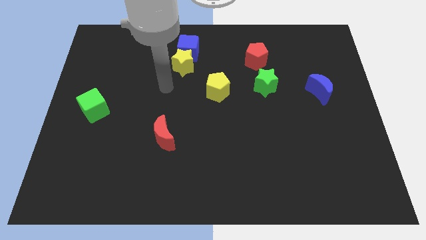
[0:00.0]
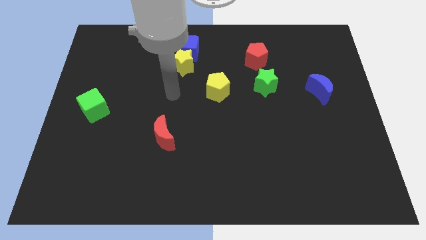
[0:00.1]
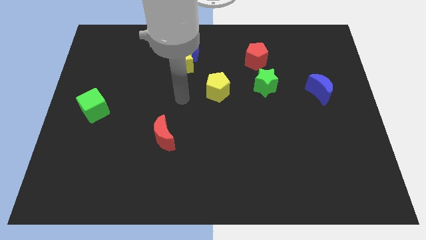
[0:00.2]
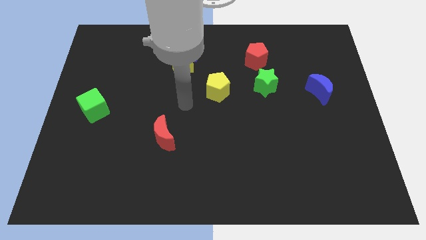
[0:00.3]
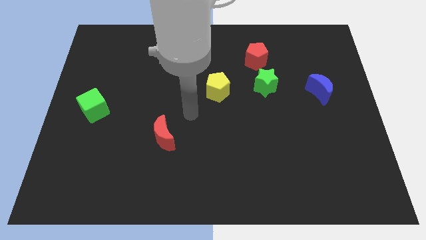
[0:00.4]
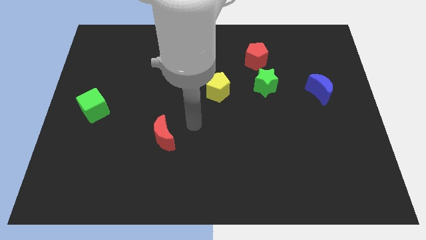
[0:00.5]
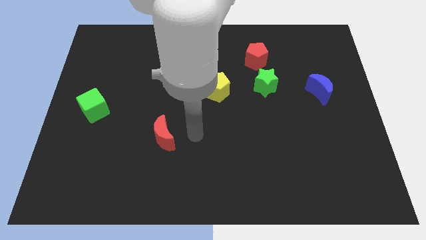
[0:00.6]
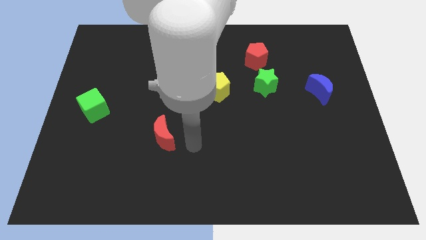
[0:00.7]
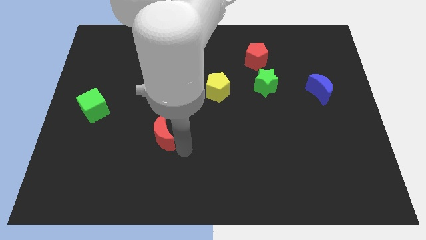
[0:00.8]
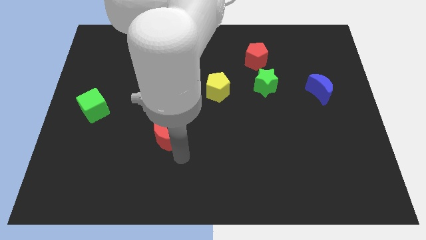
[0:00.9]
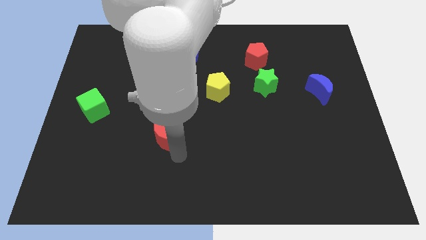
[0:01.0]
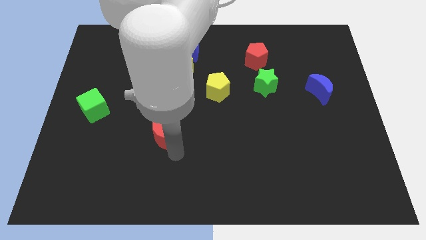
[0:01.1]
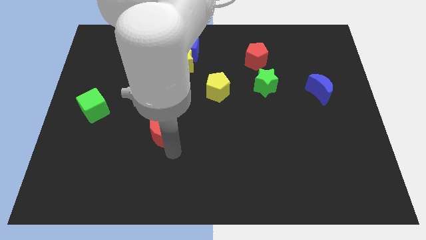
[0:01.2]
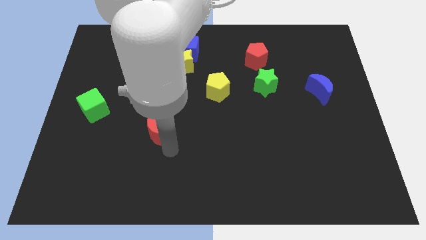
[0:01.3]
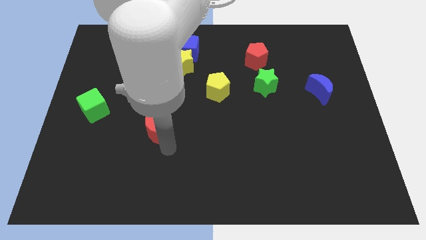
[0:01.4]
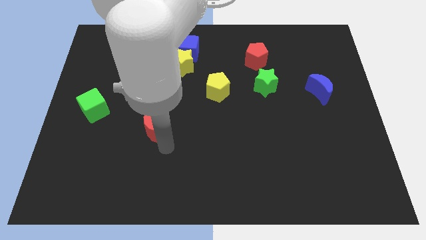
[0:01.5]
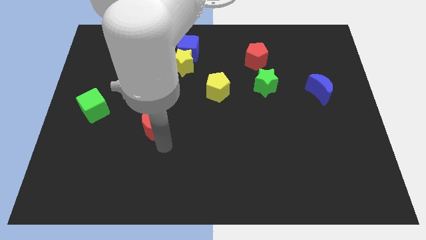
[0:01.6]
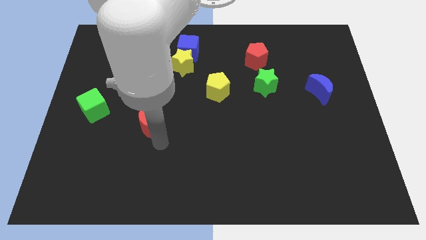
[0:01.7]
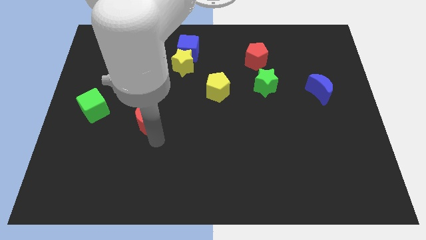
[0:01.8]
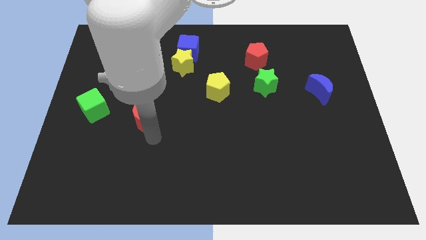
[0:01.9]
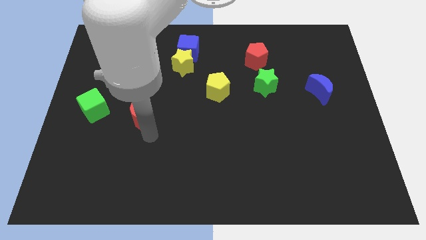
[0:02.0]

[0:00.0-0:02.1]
slightly push the red moon up and to the left diagonally

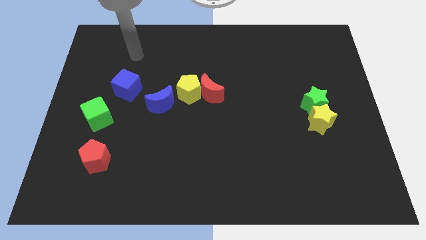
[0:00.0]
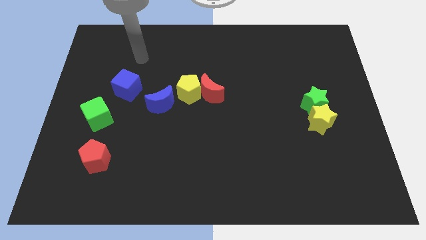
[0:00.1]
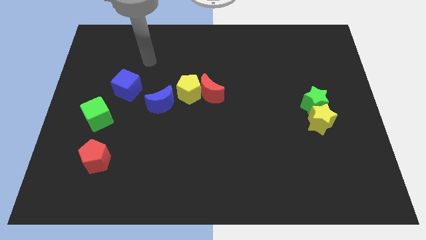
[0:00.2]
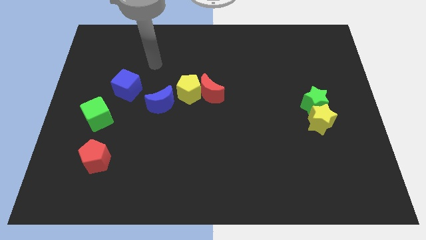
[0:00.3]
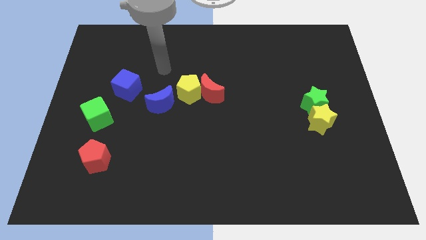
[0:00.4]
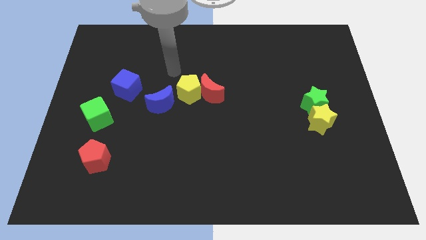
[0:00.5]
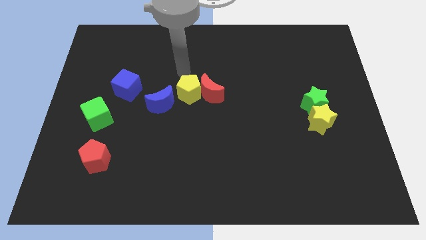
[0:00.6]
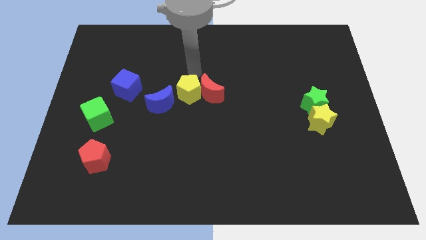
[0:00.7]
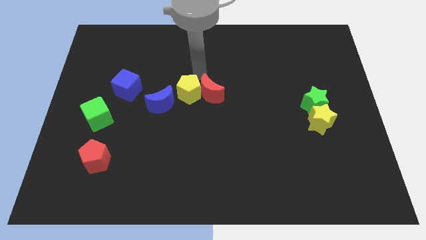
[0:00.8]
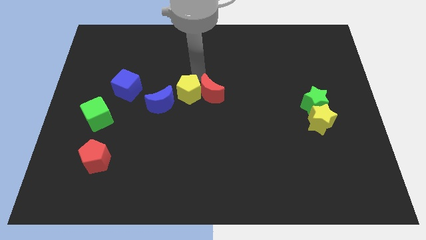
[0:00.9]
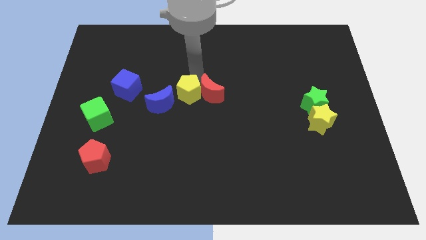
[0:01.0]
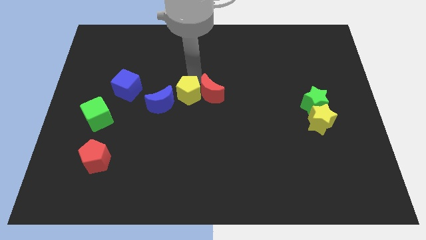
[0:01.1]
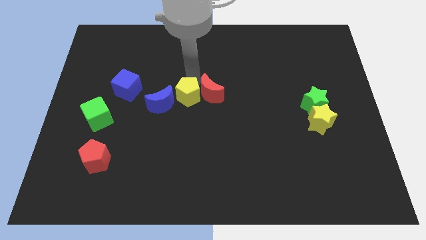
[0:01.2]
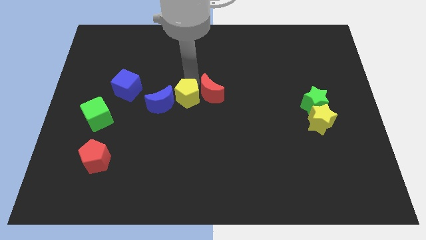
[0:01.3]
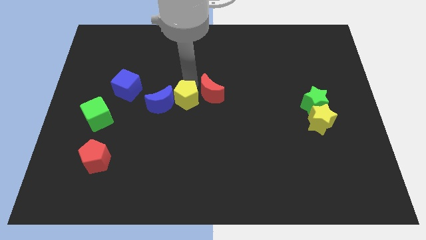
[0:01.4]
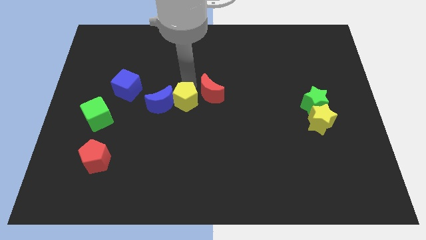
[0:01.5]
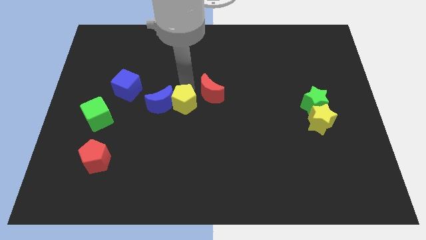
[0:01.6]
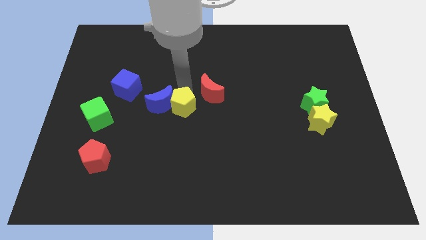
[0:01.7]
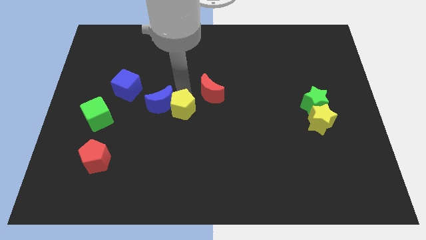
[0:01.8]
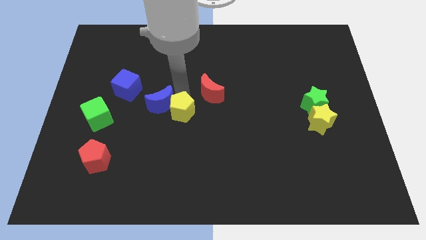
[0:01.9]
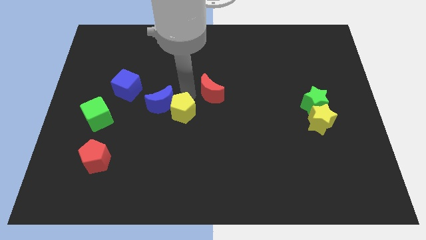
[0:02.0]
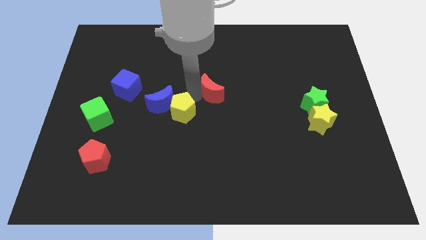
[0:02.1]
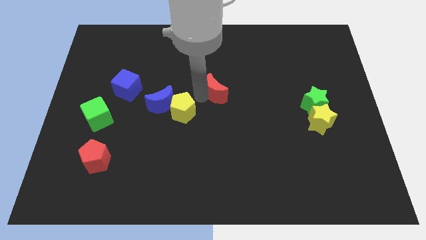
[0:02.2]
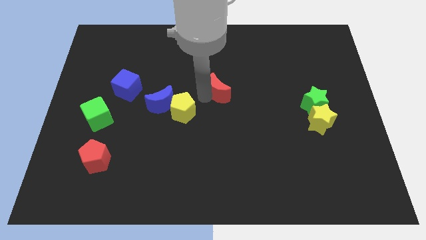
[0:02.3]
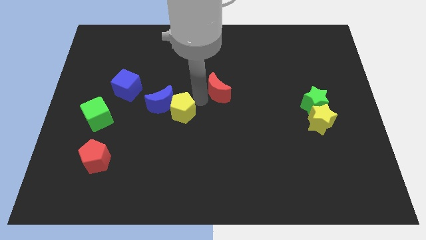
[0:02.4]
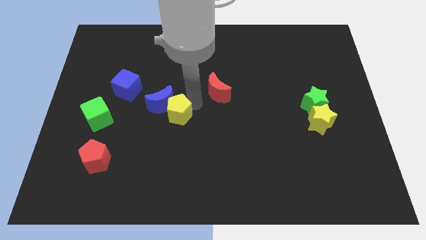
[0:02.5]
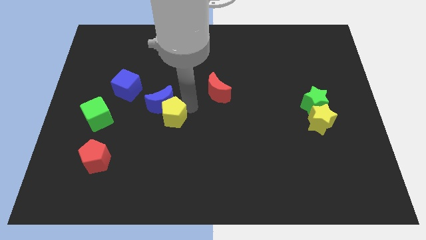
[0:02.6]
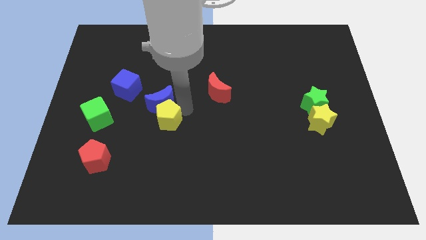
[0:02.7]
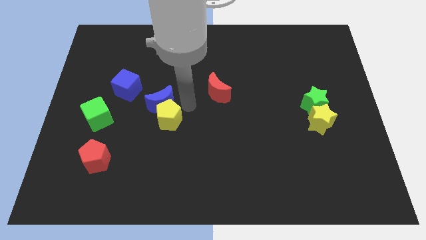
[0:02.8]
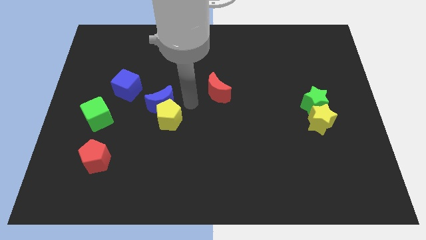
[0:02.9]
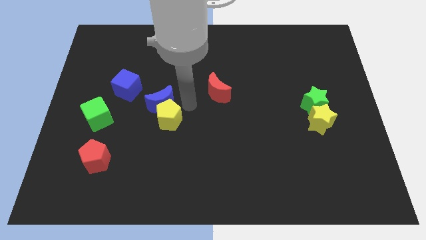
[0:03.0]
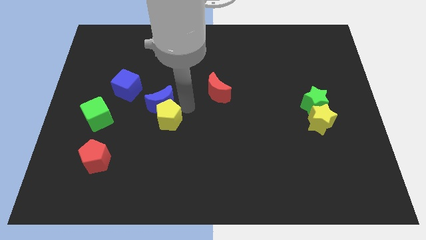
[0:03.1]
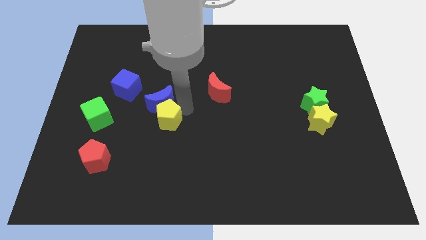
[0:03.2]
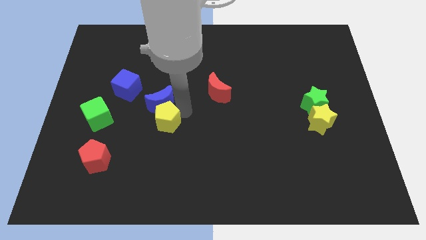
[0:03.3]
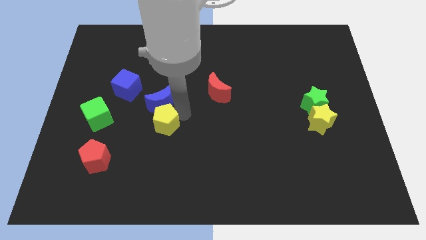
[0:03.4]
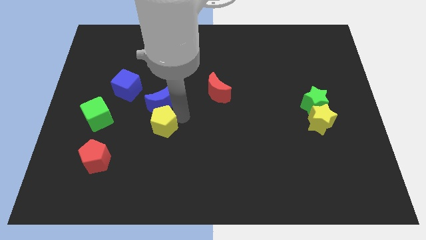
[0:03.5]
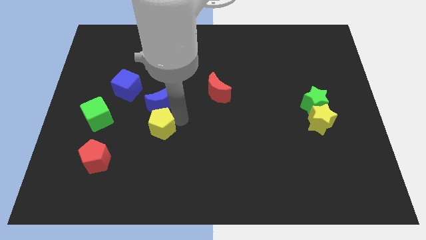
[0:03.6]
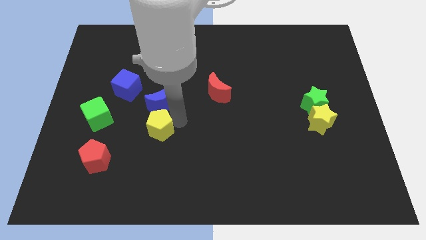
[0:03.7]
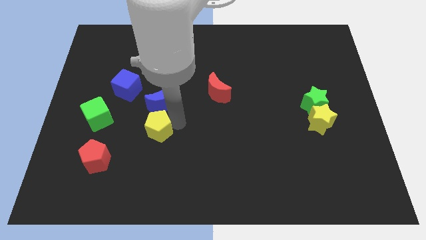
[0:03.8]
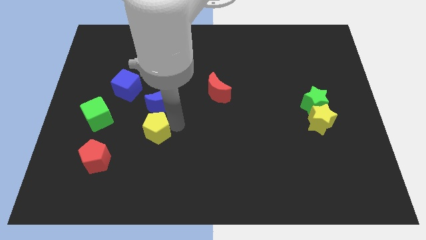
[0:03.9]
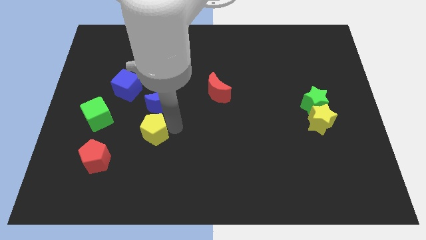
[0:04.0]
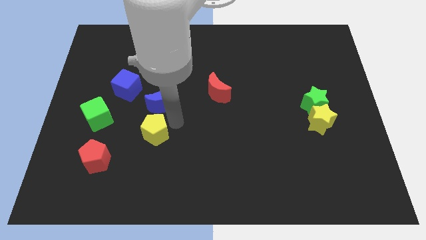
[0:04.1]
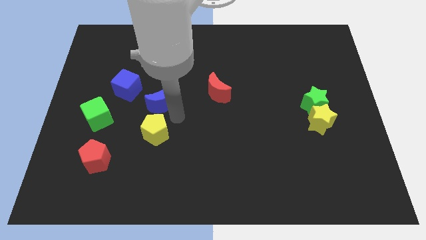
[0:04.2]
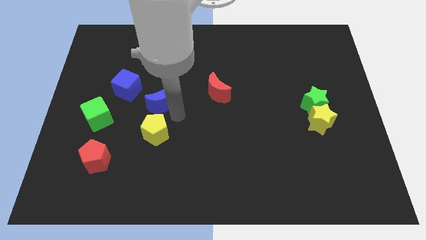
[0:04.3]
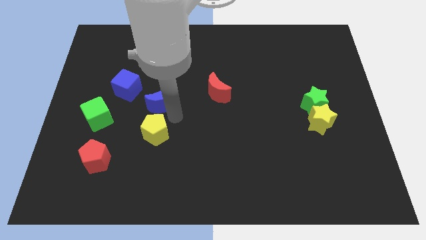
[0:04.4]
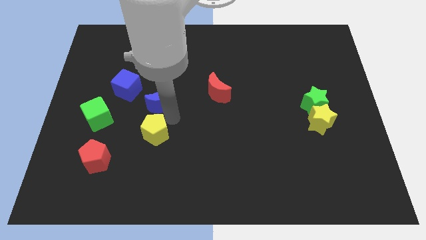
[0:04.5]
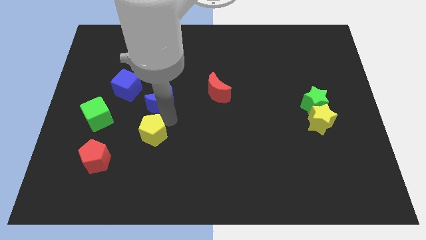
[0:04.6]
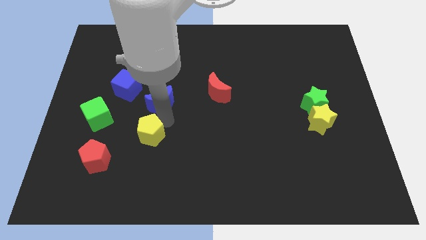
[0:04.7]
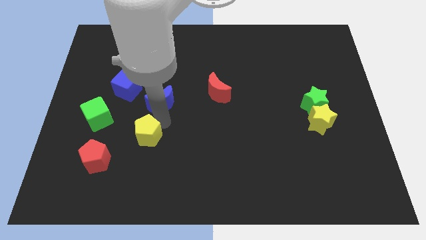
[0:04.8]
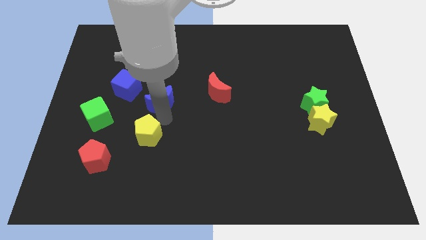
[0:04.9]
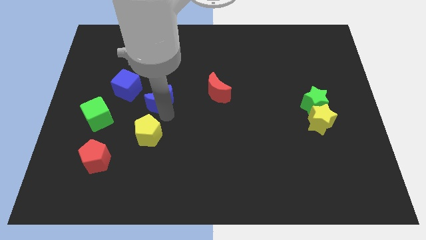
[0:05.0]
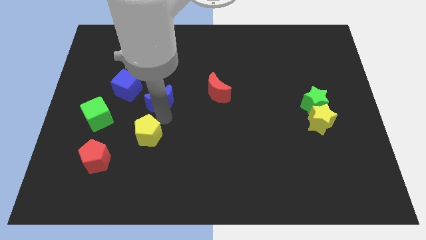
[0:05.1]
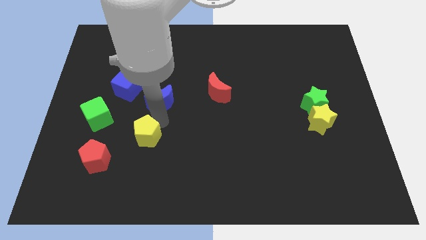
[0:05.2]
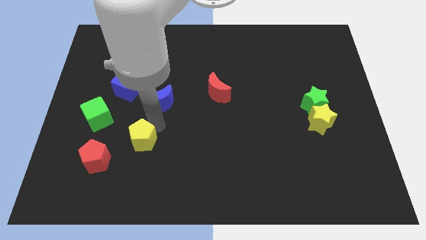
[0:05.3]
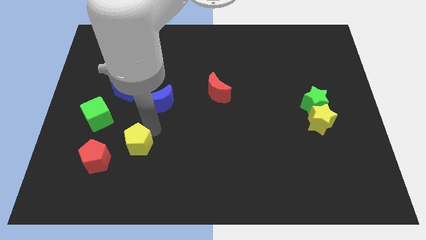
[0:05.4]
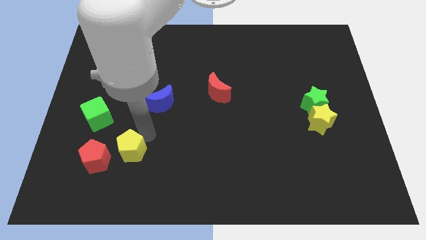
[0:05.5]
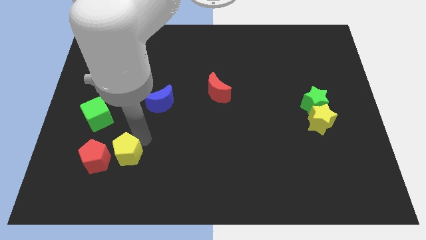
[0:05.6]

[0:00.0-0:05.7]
move the yellow pentagon diagonally downwards and to the left
